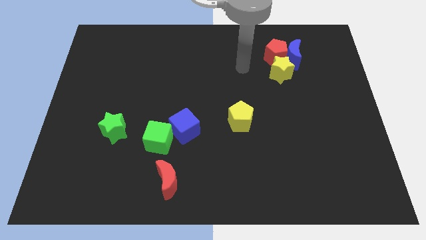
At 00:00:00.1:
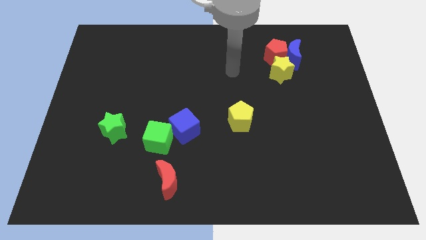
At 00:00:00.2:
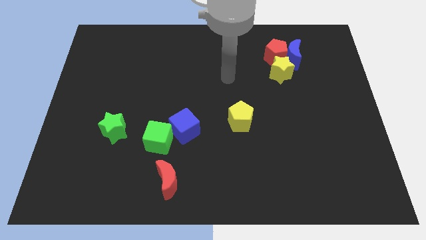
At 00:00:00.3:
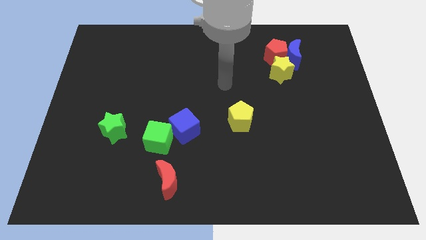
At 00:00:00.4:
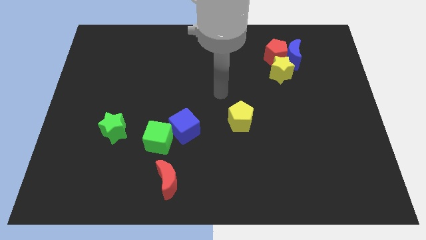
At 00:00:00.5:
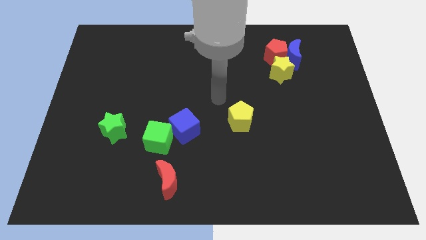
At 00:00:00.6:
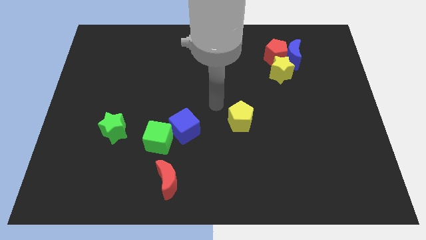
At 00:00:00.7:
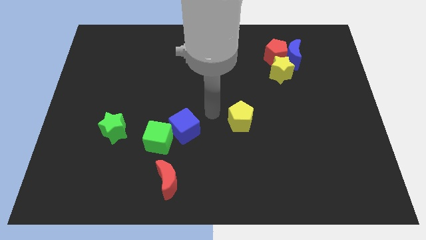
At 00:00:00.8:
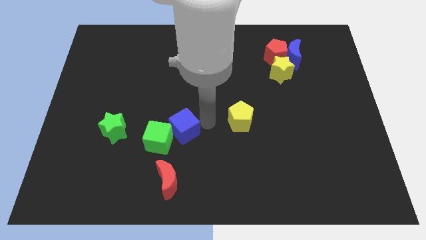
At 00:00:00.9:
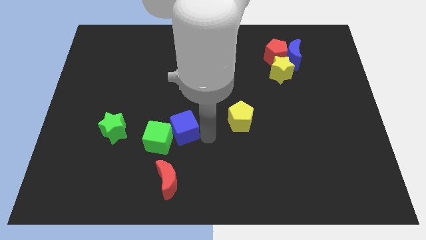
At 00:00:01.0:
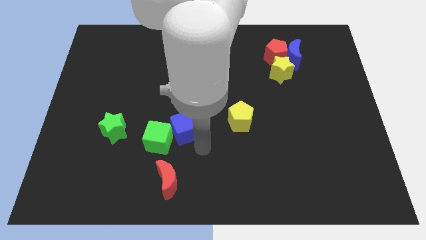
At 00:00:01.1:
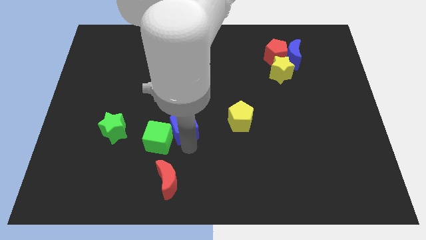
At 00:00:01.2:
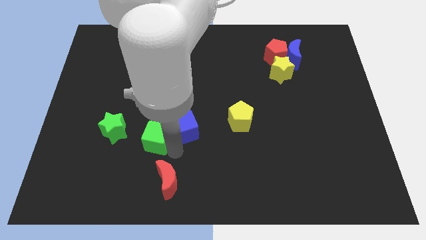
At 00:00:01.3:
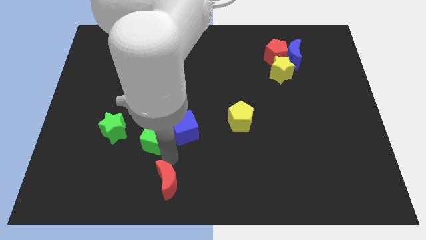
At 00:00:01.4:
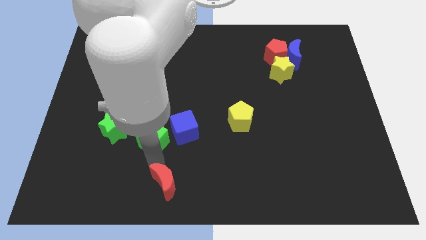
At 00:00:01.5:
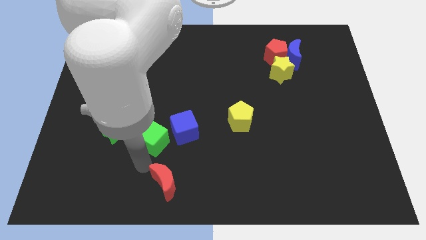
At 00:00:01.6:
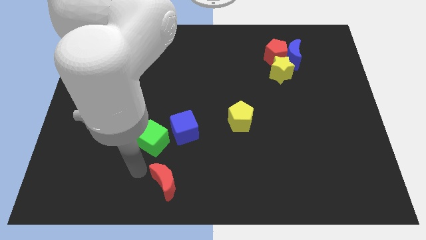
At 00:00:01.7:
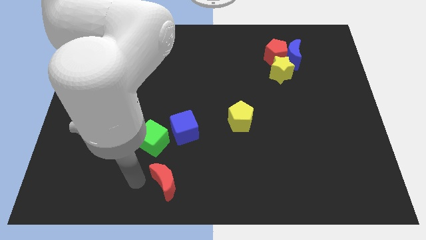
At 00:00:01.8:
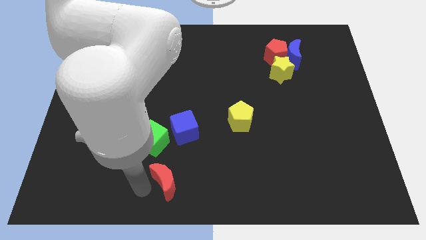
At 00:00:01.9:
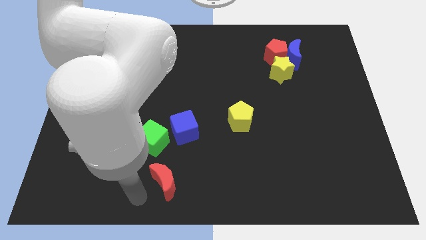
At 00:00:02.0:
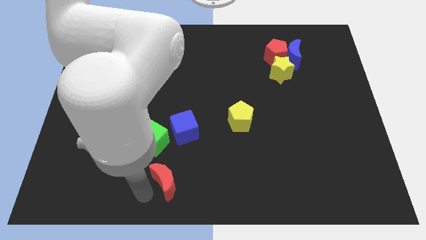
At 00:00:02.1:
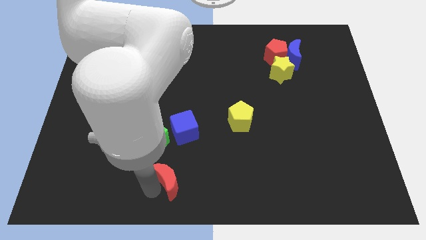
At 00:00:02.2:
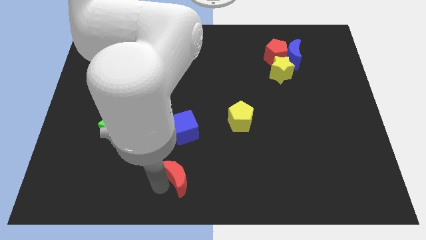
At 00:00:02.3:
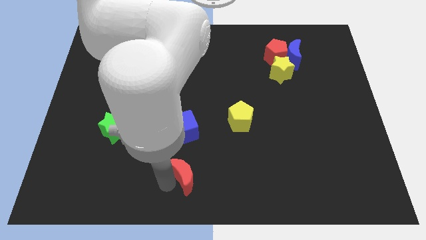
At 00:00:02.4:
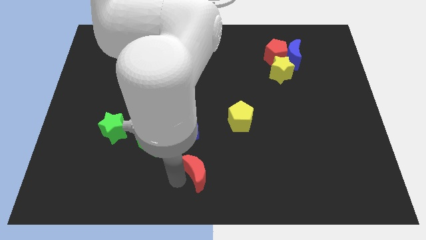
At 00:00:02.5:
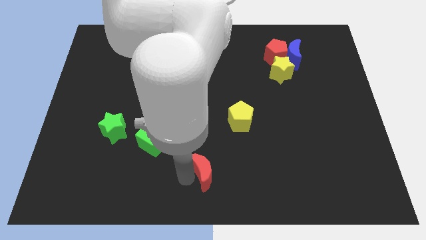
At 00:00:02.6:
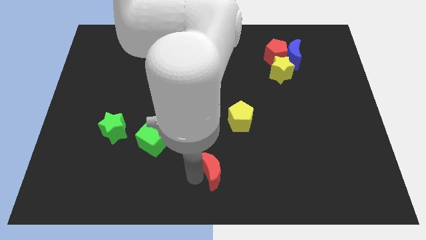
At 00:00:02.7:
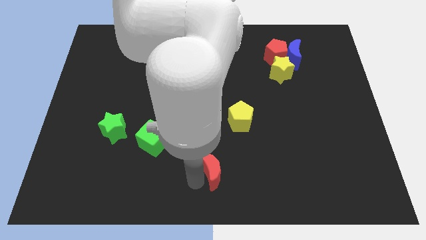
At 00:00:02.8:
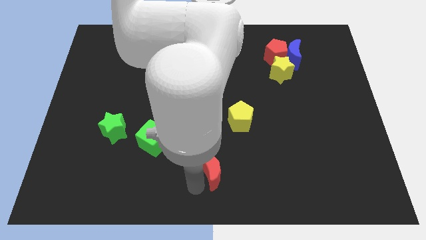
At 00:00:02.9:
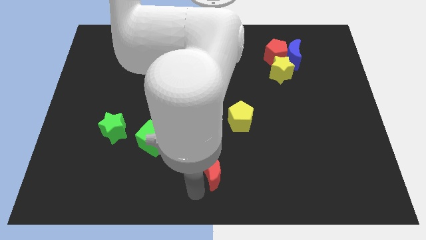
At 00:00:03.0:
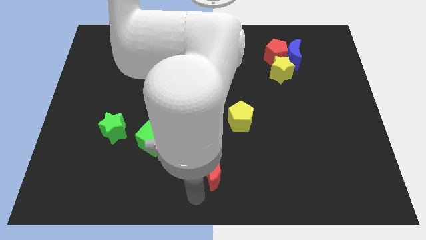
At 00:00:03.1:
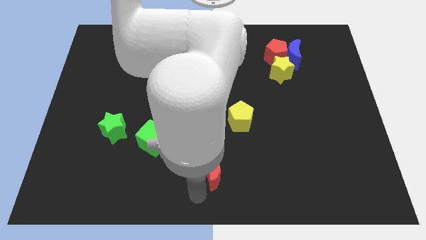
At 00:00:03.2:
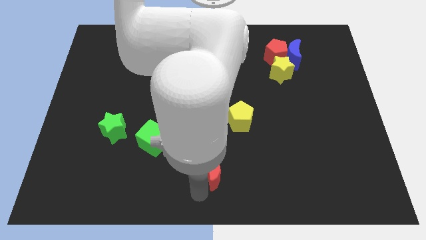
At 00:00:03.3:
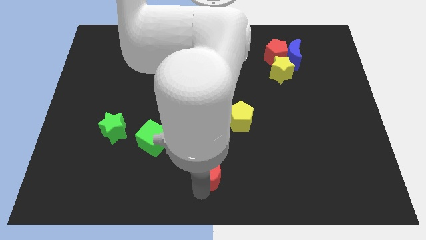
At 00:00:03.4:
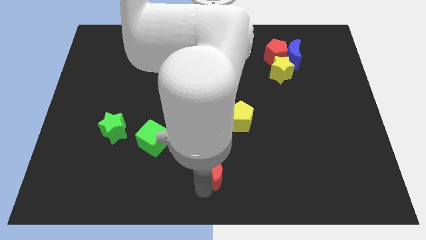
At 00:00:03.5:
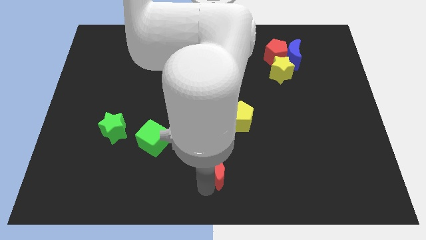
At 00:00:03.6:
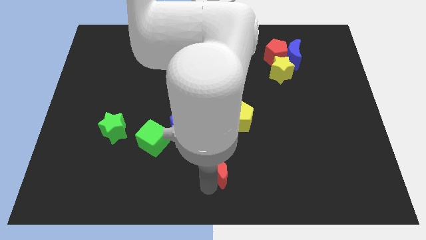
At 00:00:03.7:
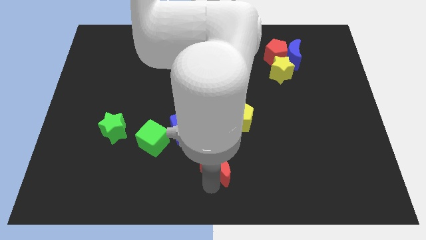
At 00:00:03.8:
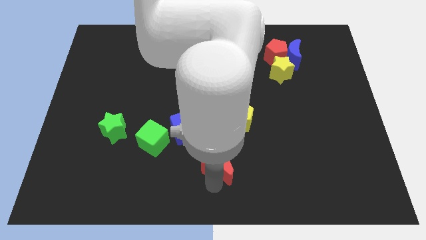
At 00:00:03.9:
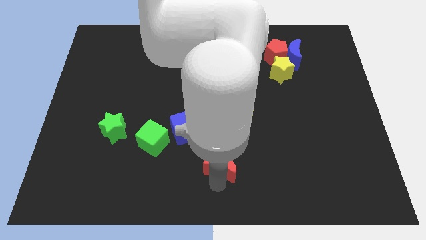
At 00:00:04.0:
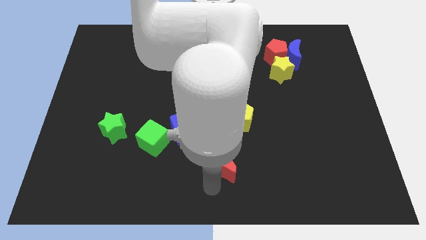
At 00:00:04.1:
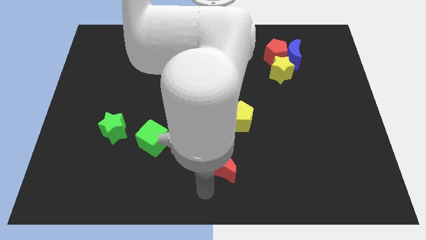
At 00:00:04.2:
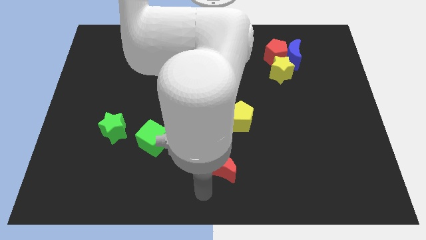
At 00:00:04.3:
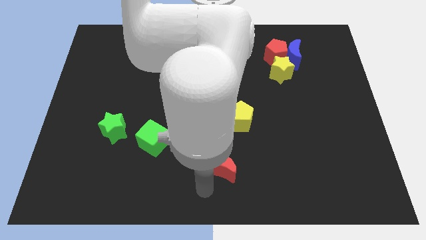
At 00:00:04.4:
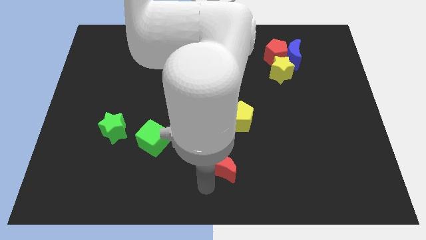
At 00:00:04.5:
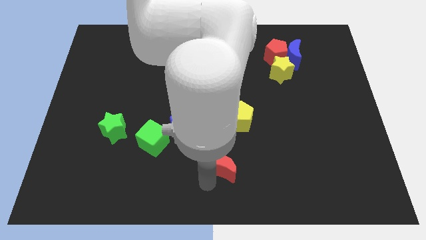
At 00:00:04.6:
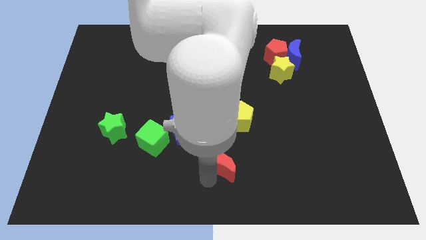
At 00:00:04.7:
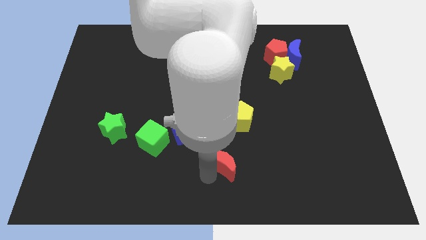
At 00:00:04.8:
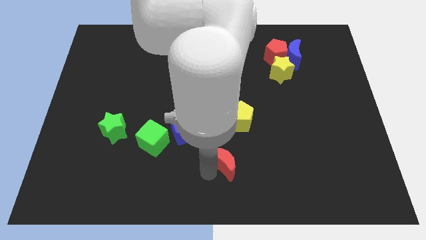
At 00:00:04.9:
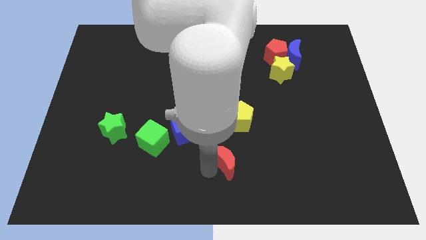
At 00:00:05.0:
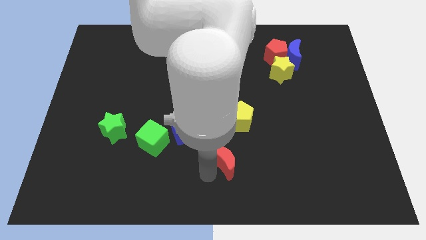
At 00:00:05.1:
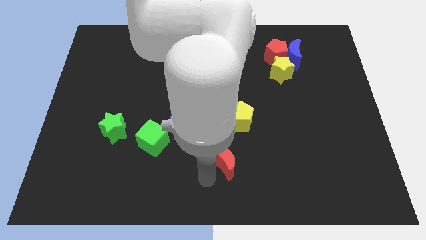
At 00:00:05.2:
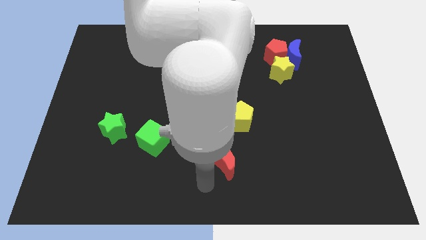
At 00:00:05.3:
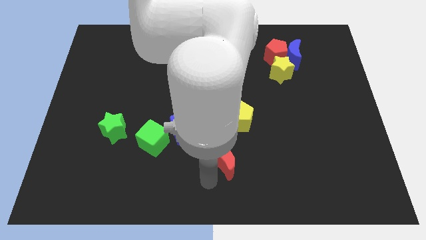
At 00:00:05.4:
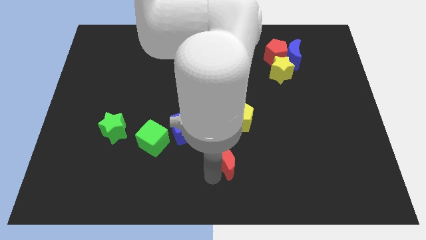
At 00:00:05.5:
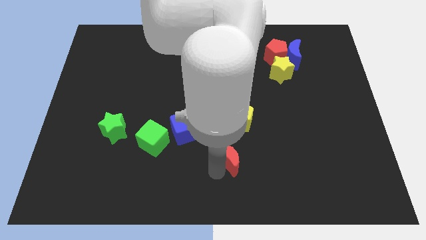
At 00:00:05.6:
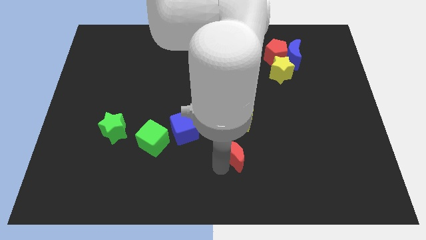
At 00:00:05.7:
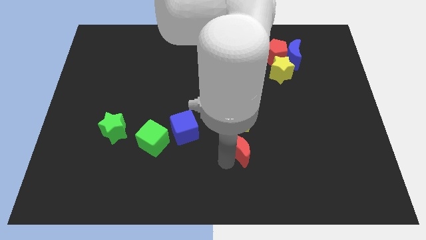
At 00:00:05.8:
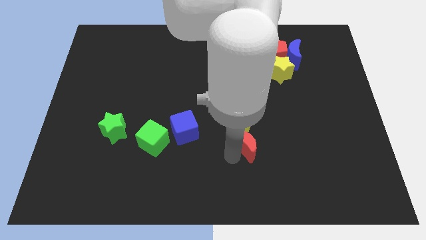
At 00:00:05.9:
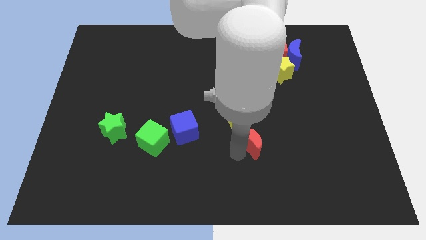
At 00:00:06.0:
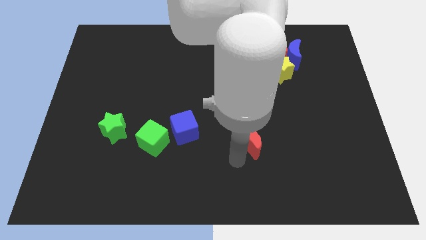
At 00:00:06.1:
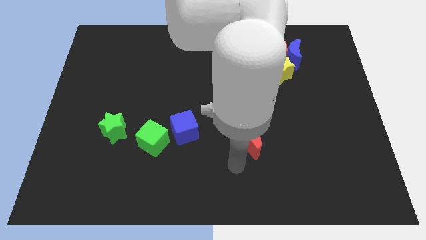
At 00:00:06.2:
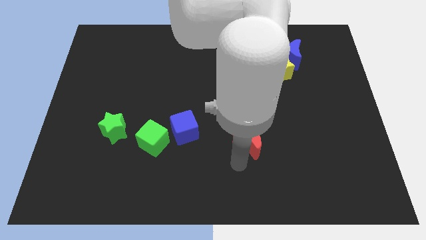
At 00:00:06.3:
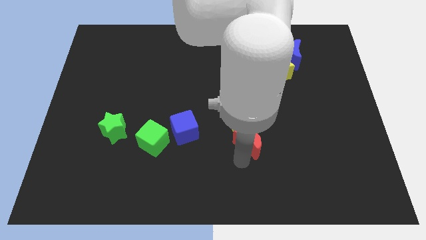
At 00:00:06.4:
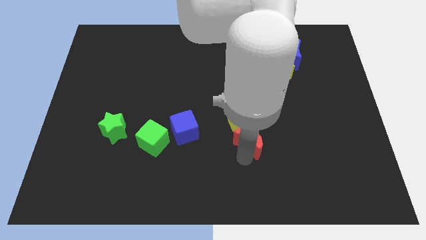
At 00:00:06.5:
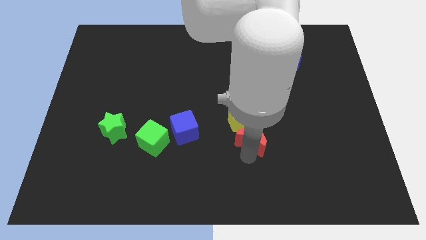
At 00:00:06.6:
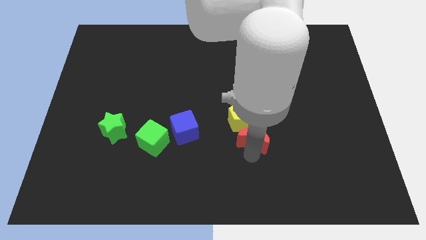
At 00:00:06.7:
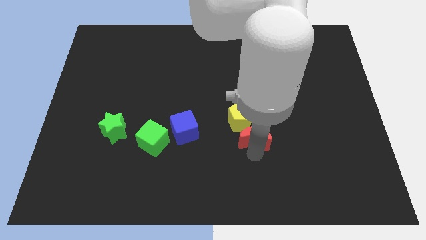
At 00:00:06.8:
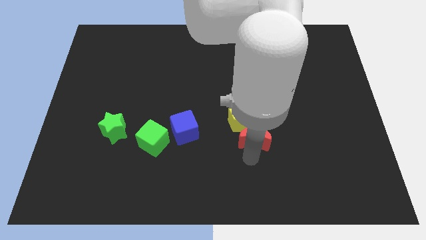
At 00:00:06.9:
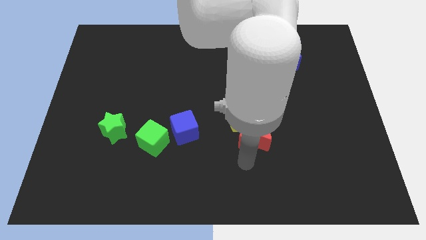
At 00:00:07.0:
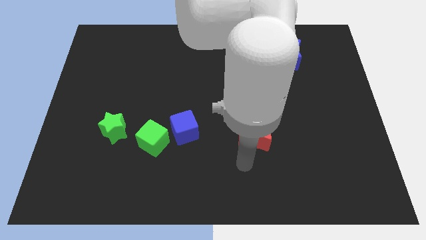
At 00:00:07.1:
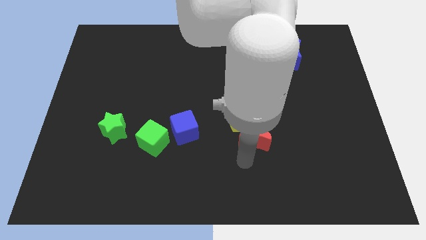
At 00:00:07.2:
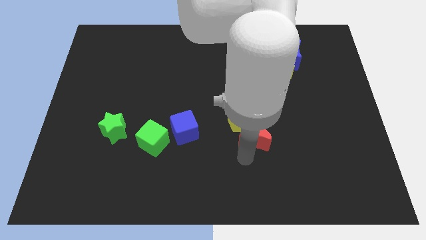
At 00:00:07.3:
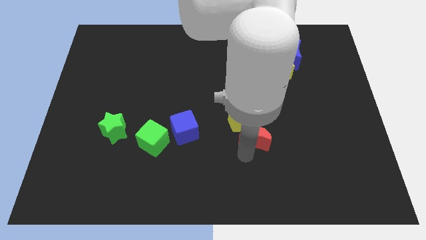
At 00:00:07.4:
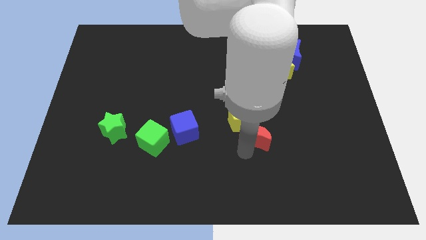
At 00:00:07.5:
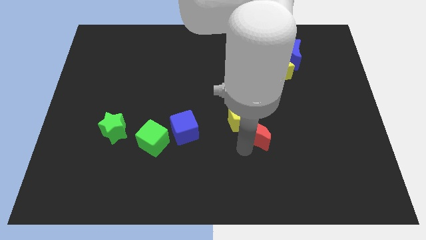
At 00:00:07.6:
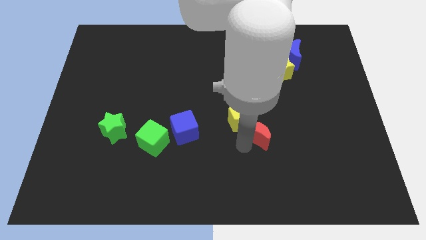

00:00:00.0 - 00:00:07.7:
slide the red moon upwards and then right

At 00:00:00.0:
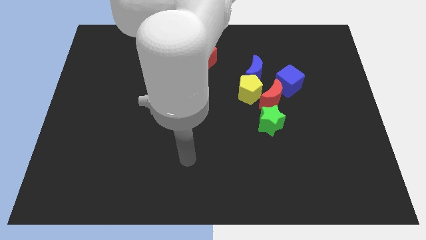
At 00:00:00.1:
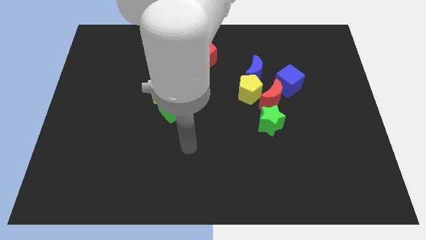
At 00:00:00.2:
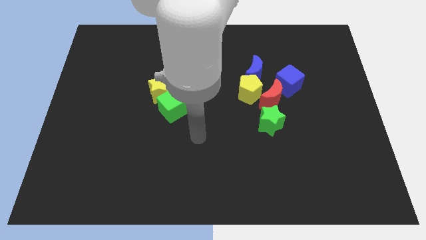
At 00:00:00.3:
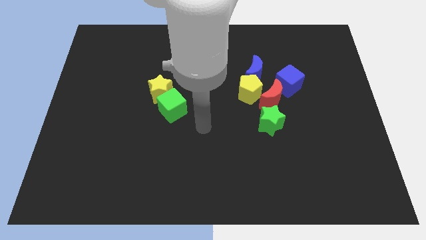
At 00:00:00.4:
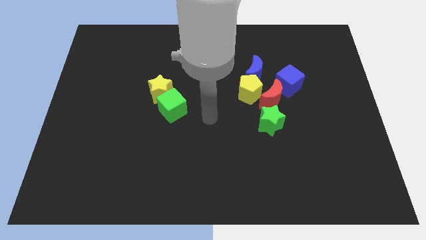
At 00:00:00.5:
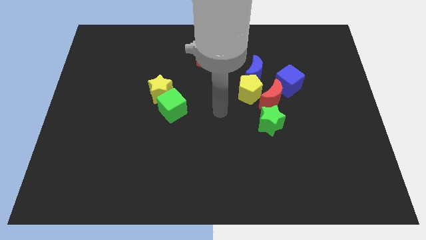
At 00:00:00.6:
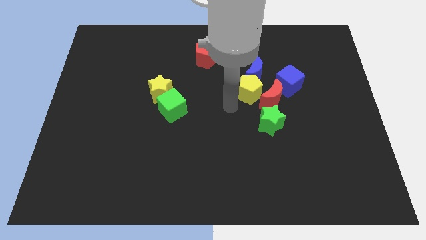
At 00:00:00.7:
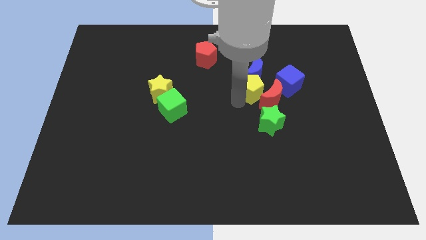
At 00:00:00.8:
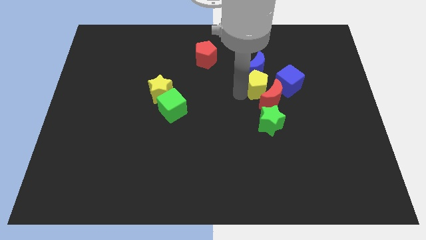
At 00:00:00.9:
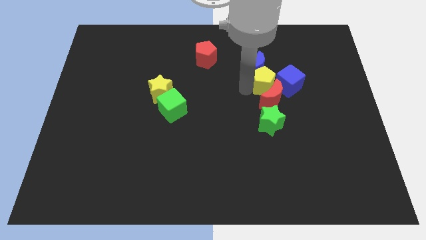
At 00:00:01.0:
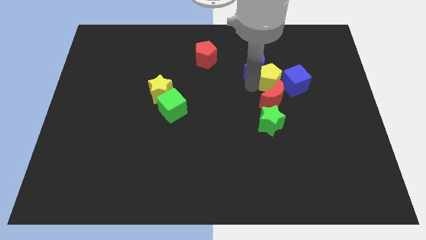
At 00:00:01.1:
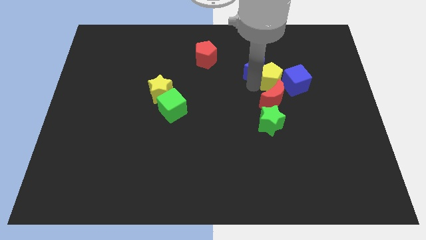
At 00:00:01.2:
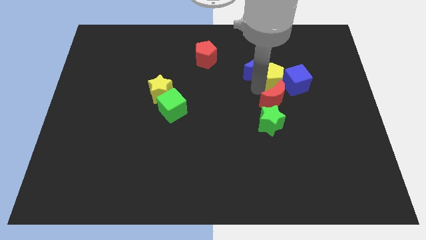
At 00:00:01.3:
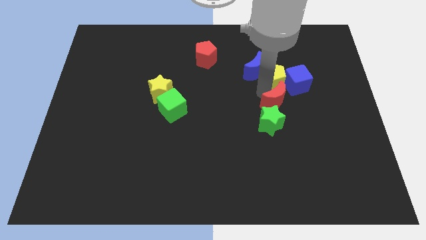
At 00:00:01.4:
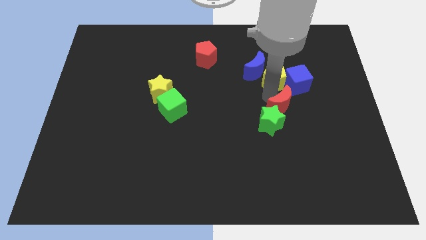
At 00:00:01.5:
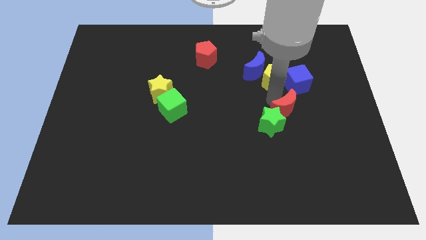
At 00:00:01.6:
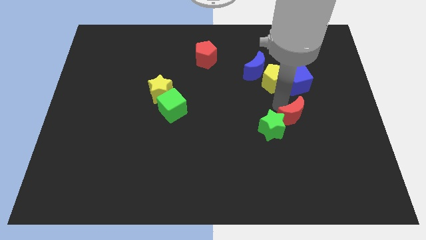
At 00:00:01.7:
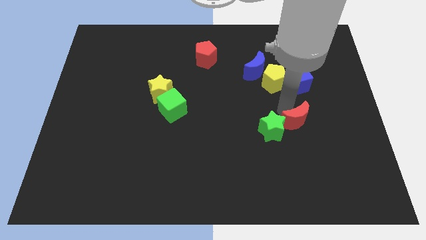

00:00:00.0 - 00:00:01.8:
slightly push the red moon diagonally downwards and to the right
